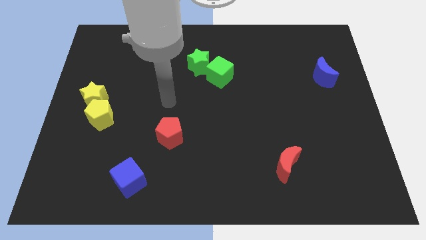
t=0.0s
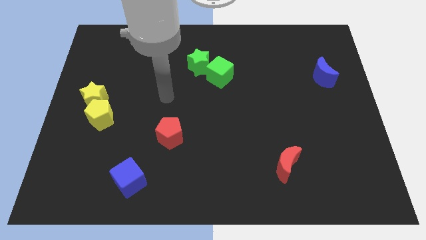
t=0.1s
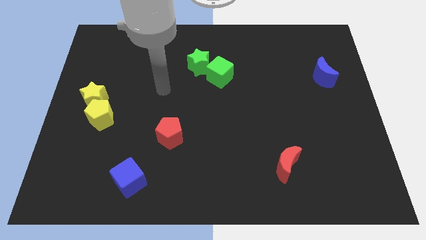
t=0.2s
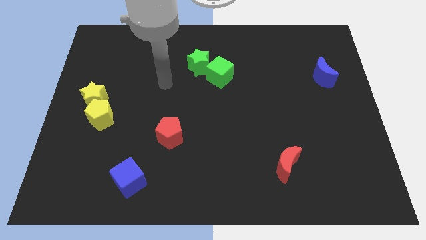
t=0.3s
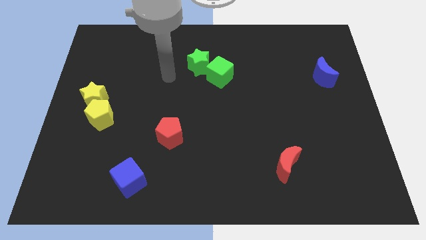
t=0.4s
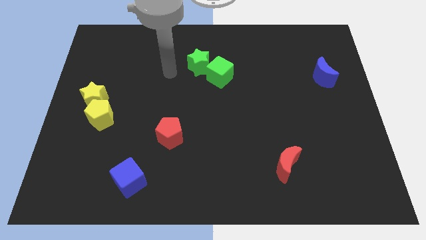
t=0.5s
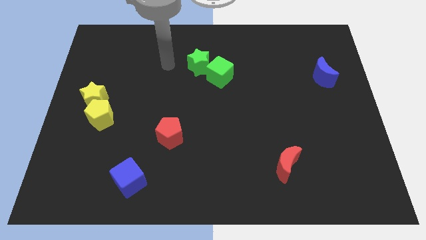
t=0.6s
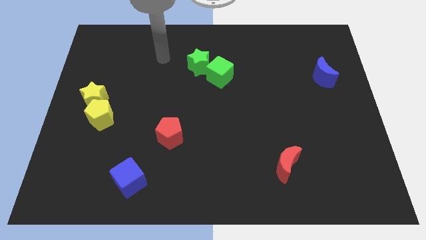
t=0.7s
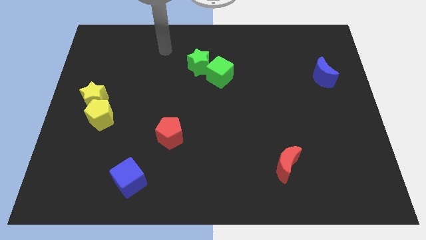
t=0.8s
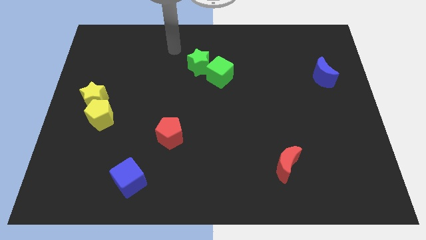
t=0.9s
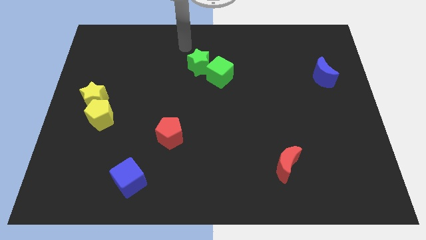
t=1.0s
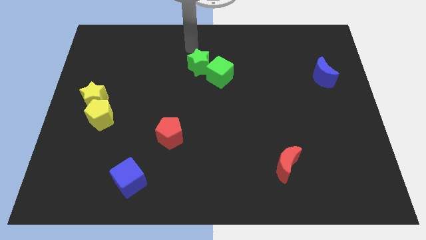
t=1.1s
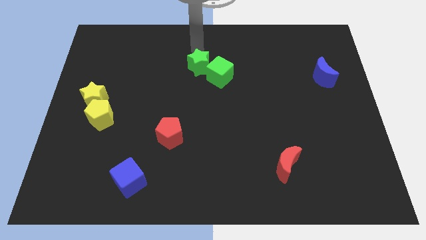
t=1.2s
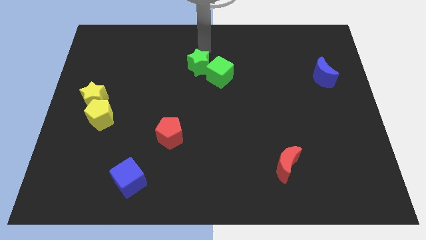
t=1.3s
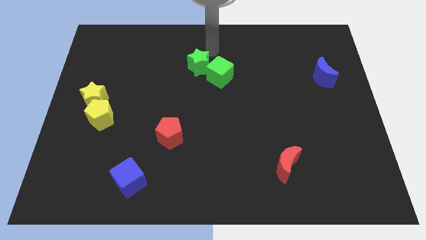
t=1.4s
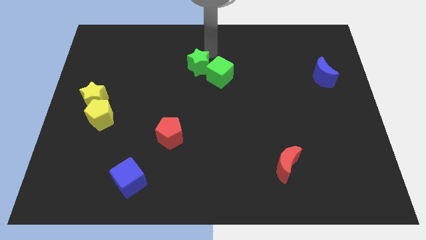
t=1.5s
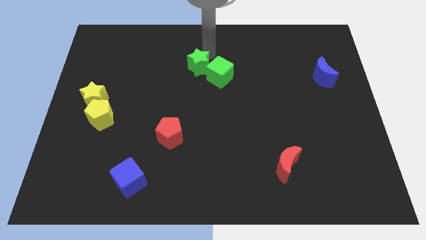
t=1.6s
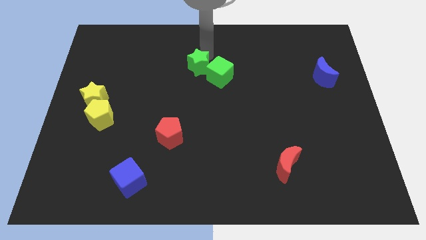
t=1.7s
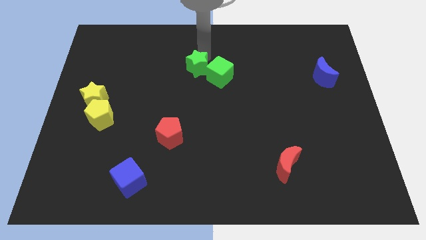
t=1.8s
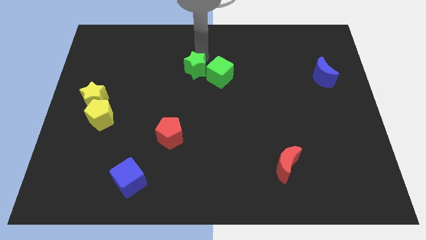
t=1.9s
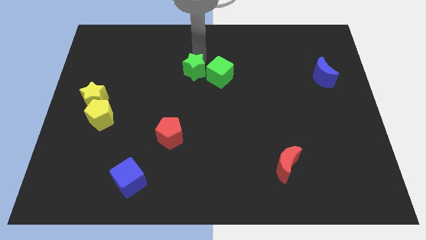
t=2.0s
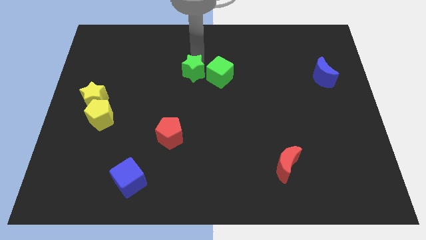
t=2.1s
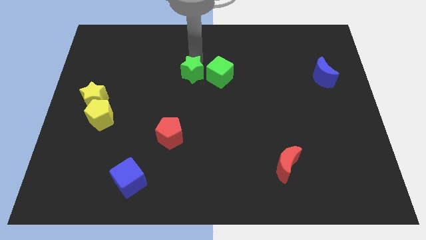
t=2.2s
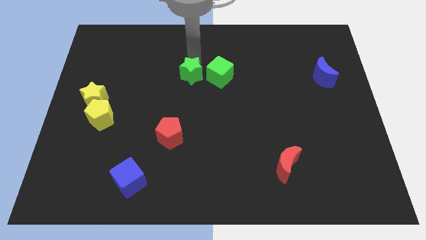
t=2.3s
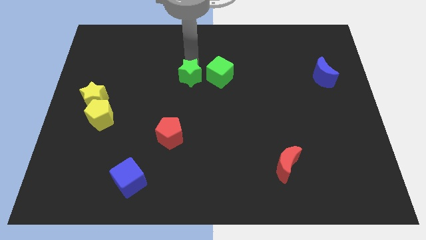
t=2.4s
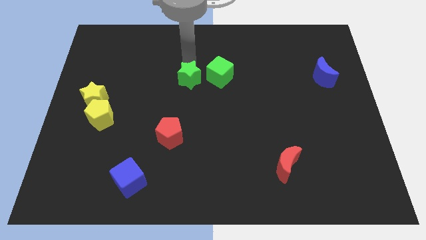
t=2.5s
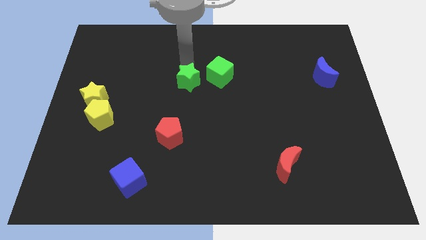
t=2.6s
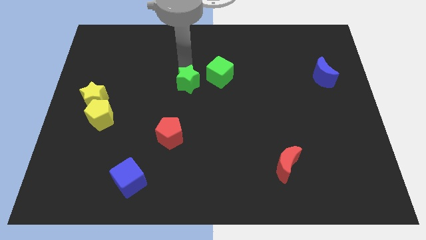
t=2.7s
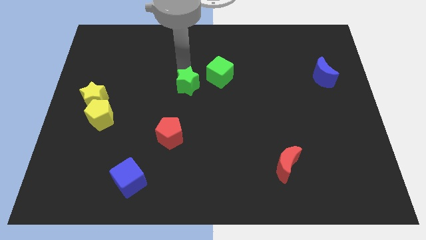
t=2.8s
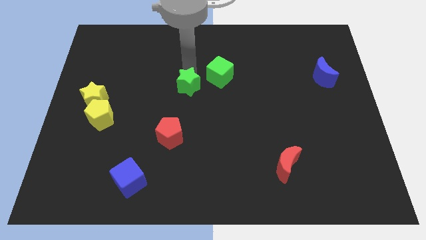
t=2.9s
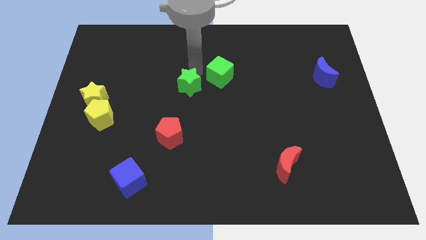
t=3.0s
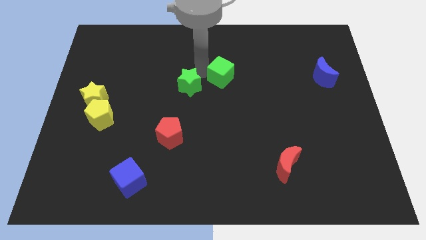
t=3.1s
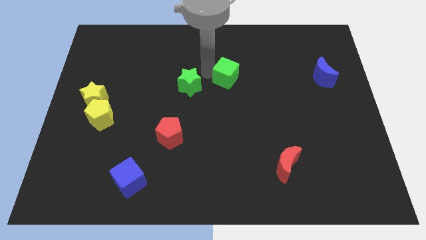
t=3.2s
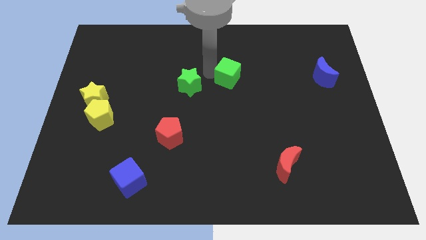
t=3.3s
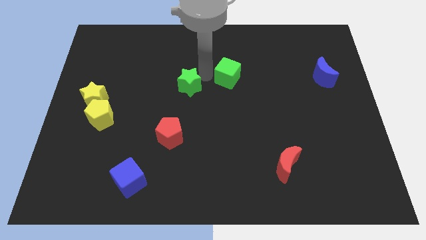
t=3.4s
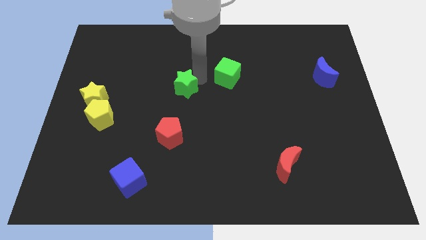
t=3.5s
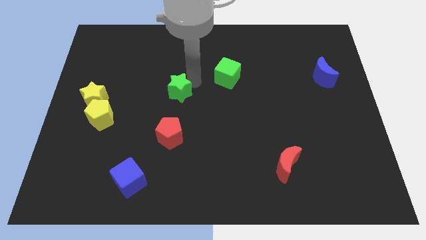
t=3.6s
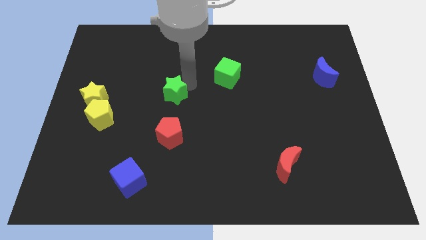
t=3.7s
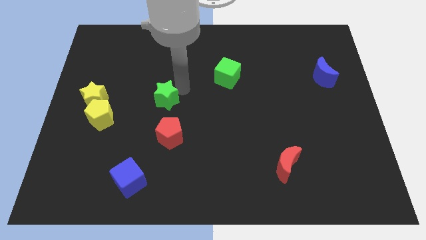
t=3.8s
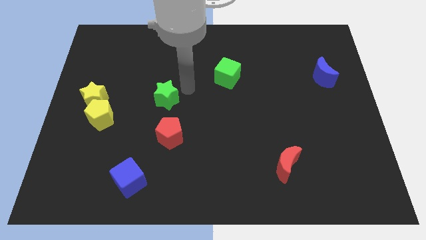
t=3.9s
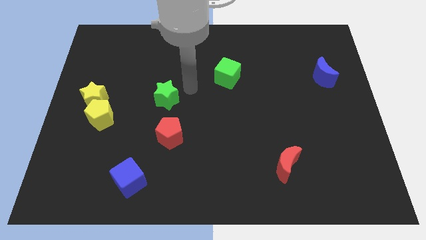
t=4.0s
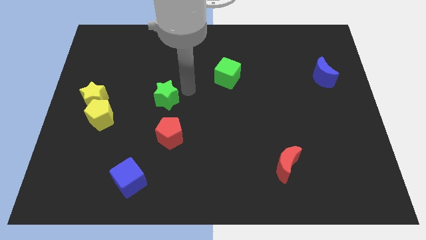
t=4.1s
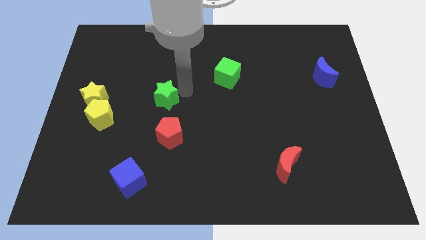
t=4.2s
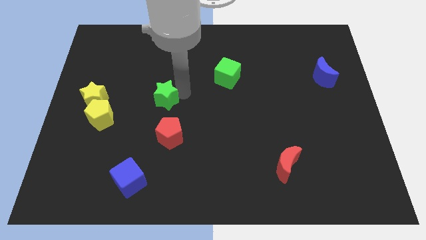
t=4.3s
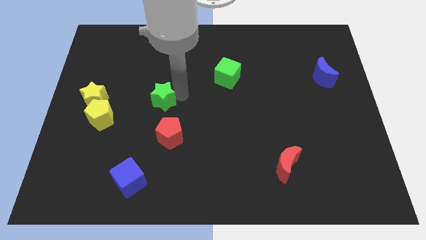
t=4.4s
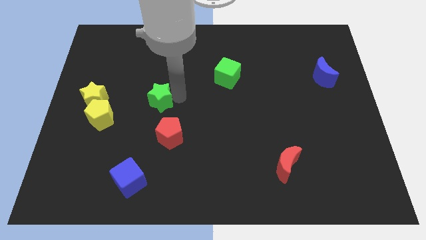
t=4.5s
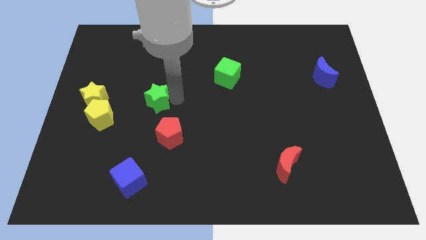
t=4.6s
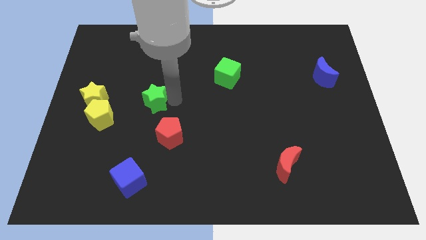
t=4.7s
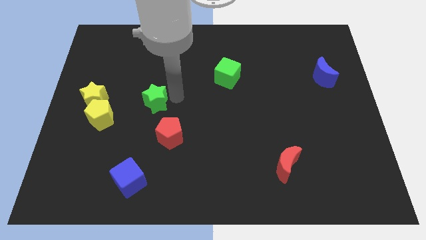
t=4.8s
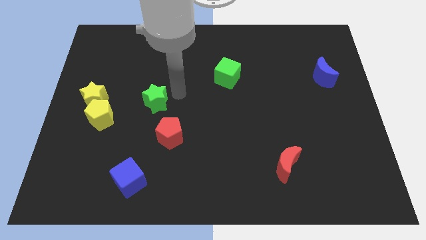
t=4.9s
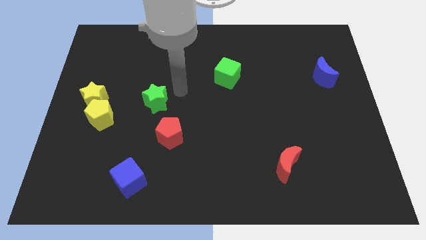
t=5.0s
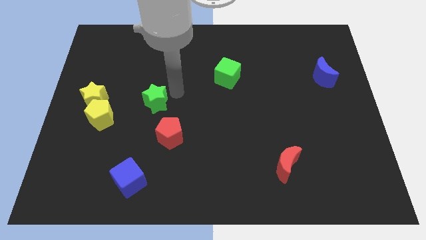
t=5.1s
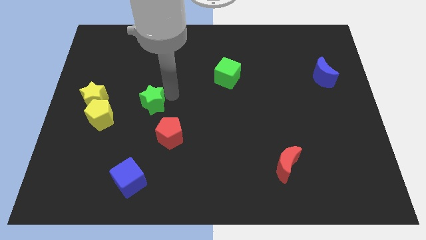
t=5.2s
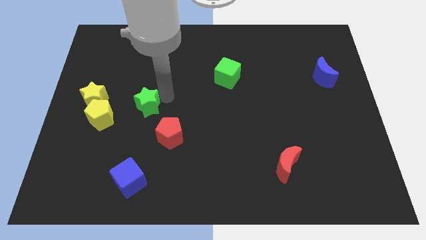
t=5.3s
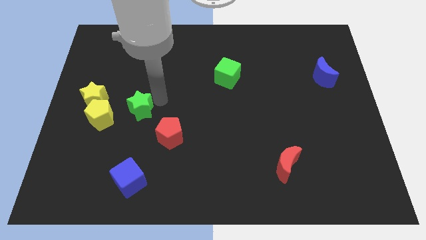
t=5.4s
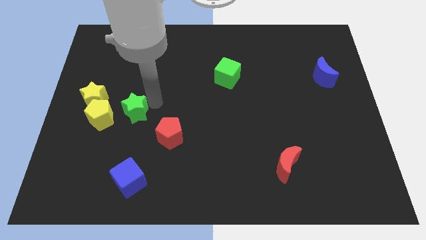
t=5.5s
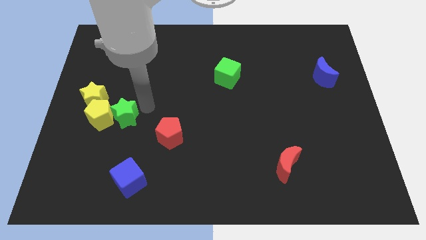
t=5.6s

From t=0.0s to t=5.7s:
push the green star next to the yellow pentagon

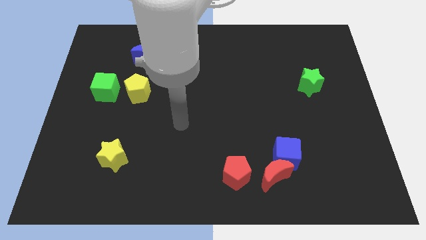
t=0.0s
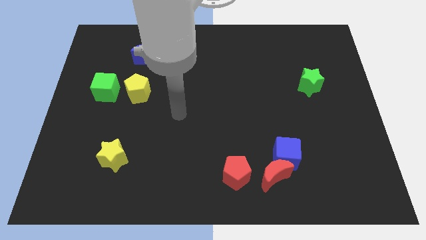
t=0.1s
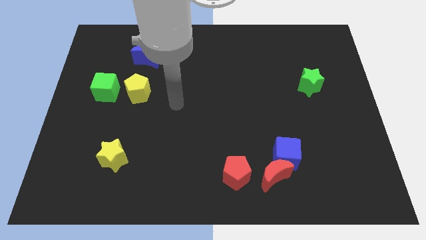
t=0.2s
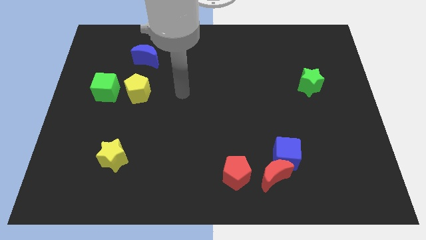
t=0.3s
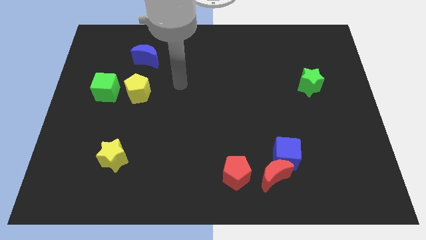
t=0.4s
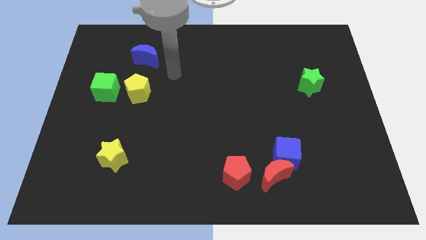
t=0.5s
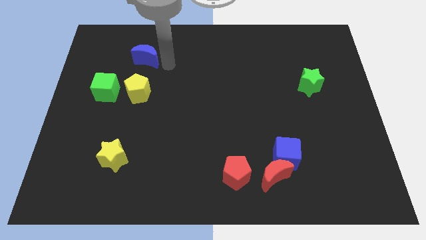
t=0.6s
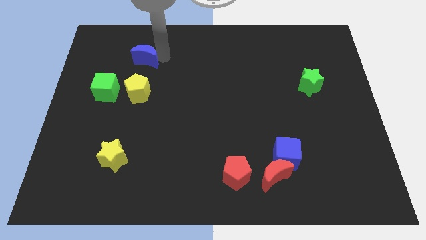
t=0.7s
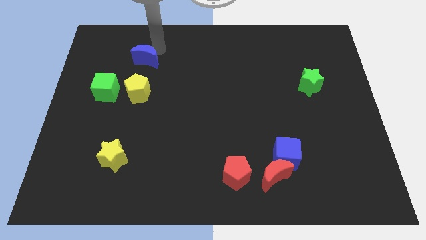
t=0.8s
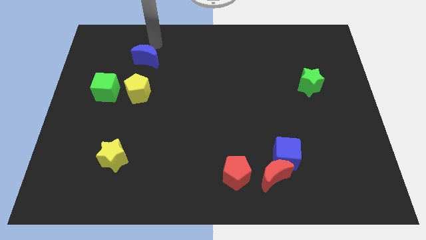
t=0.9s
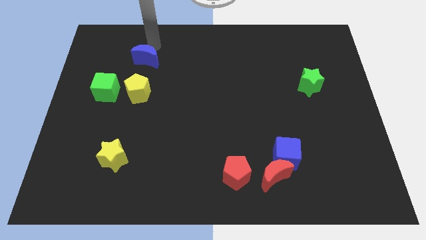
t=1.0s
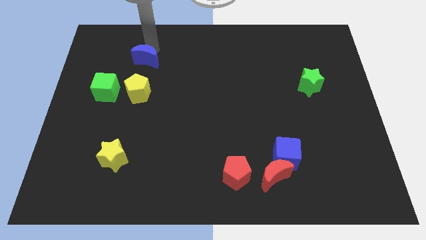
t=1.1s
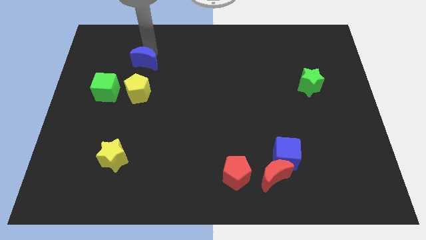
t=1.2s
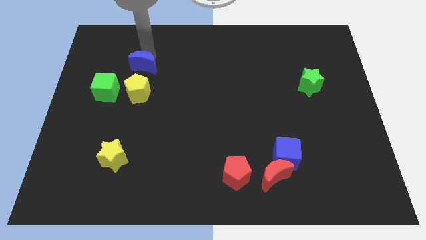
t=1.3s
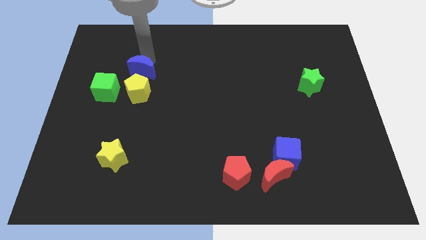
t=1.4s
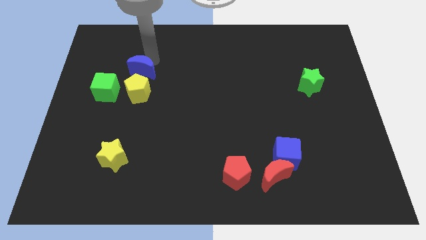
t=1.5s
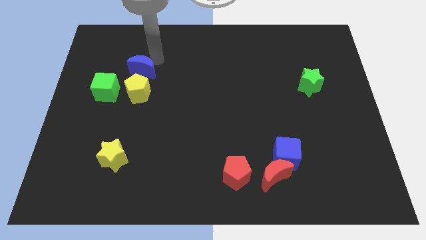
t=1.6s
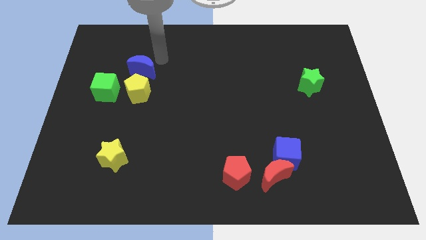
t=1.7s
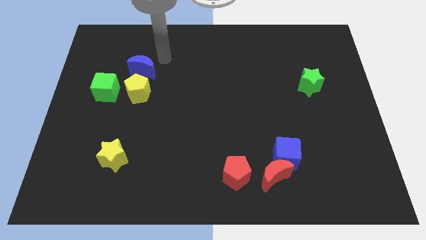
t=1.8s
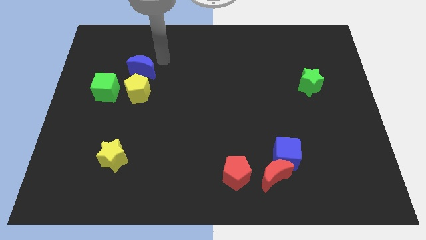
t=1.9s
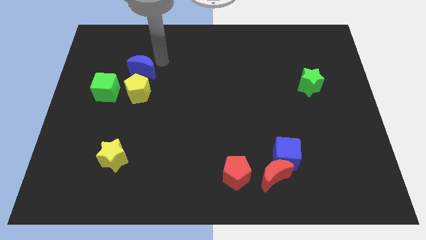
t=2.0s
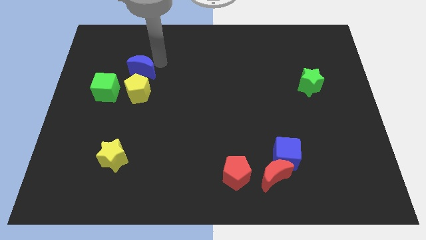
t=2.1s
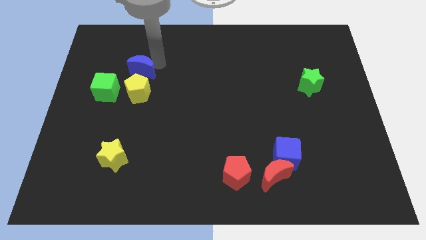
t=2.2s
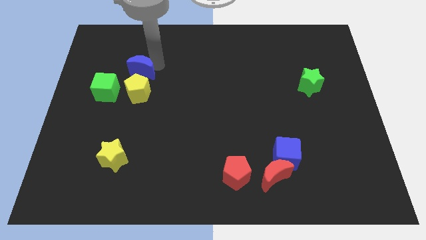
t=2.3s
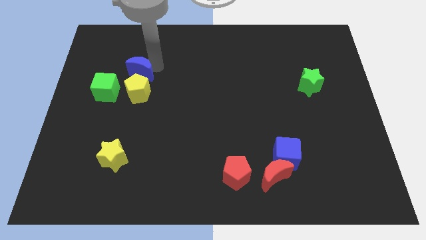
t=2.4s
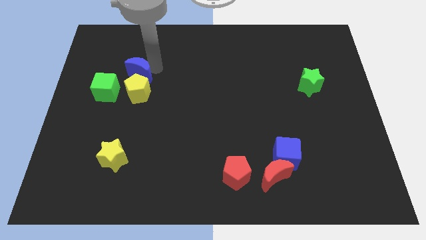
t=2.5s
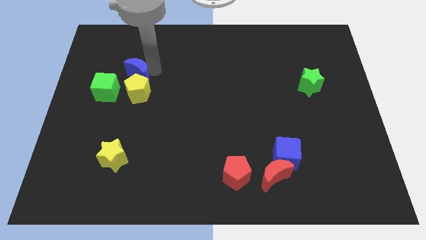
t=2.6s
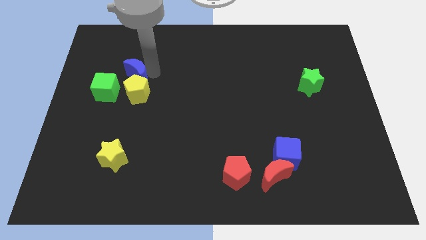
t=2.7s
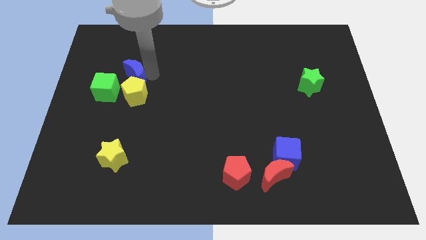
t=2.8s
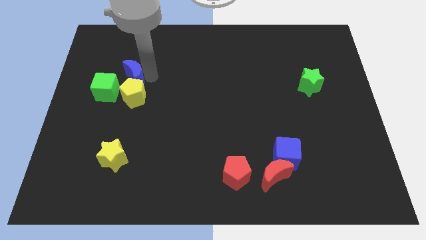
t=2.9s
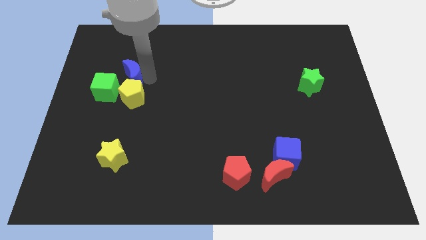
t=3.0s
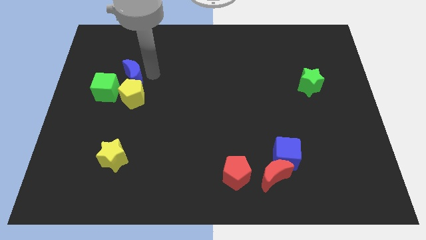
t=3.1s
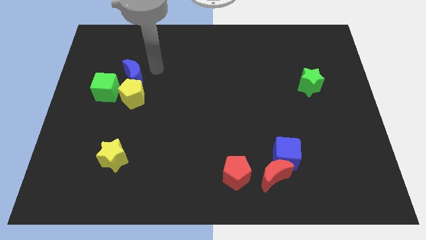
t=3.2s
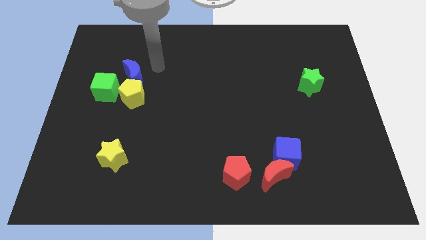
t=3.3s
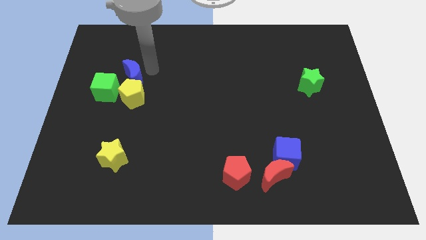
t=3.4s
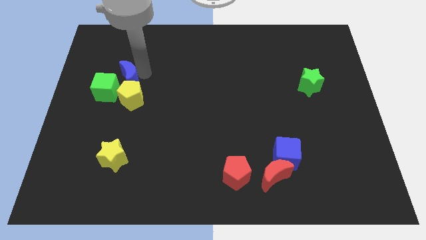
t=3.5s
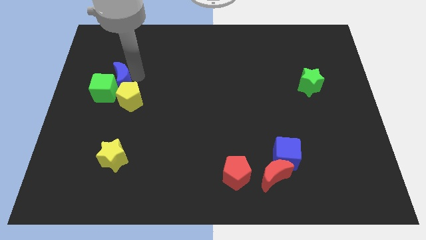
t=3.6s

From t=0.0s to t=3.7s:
put the blue moon close to the green cube
